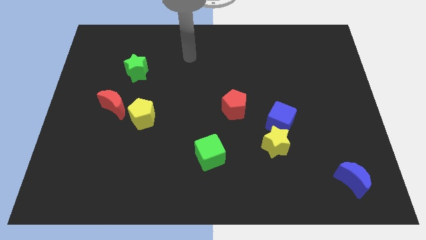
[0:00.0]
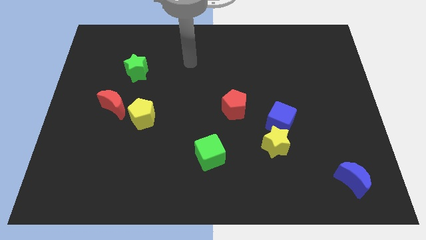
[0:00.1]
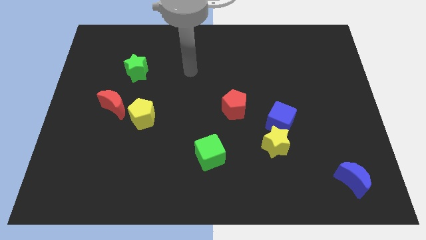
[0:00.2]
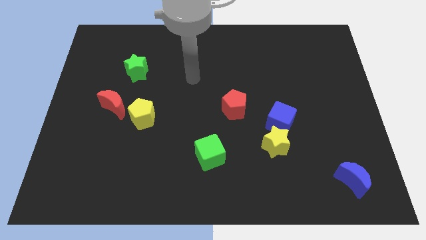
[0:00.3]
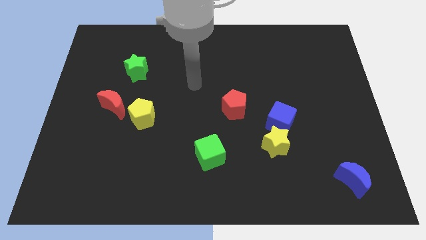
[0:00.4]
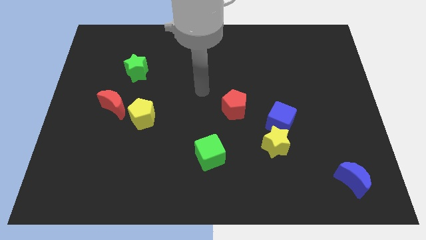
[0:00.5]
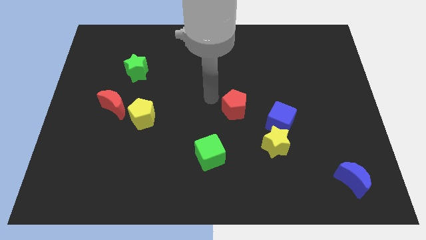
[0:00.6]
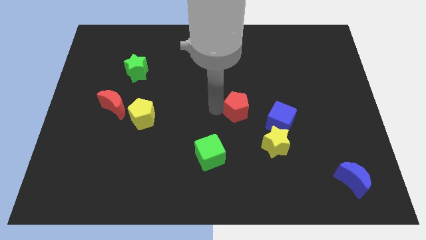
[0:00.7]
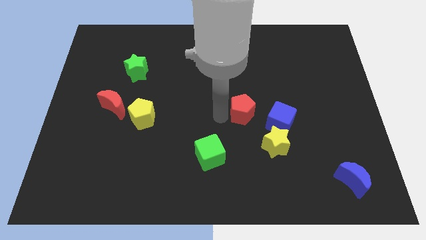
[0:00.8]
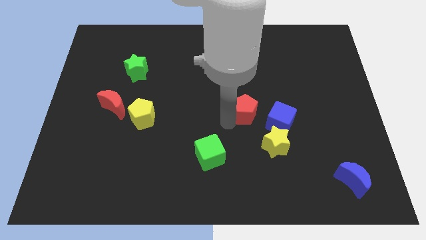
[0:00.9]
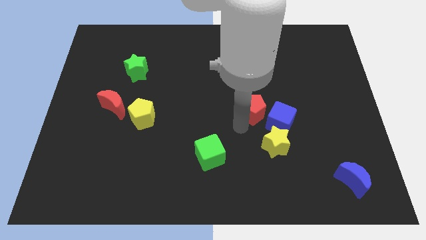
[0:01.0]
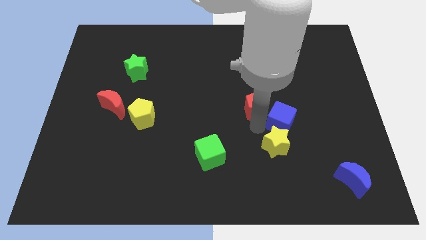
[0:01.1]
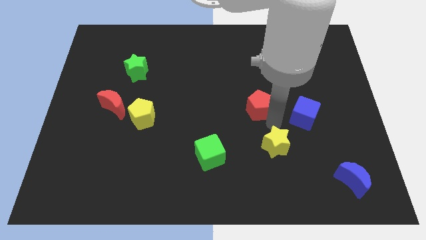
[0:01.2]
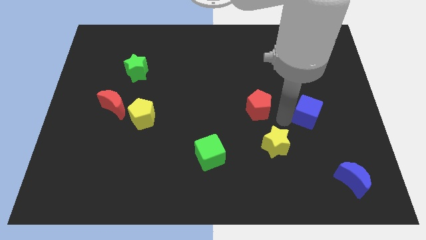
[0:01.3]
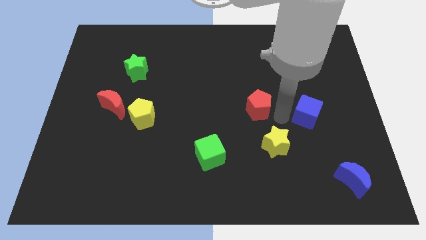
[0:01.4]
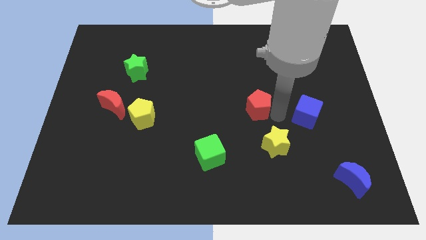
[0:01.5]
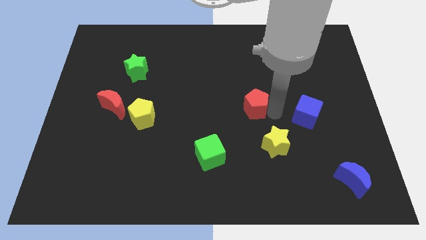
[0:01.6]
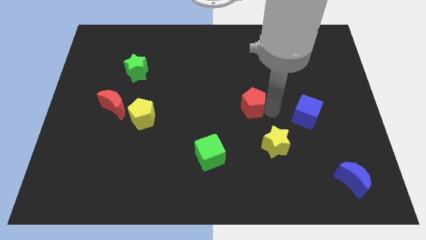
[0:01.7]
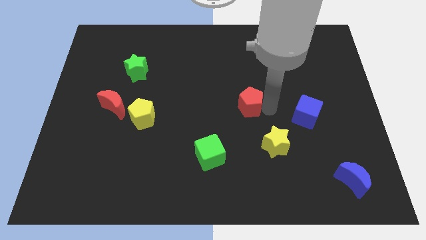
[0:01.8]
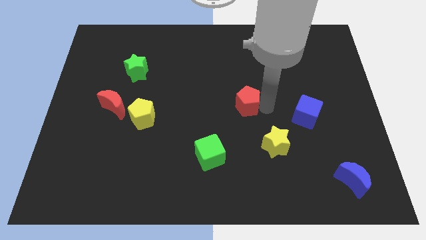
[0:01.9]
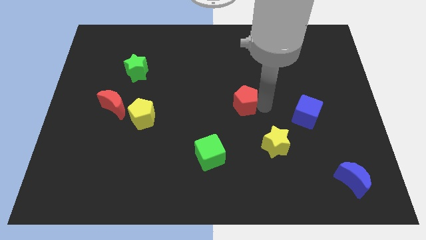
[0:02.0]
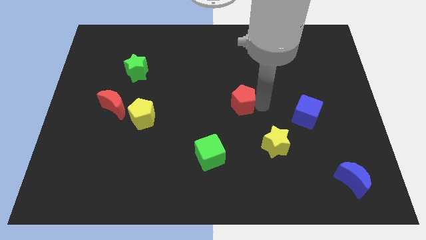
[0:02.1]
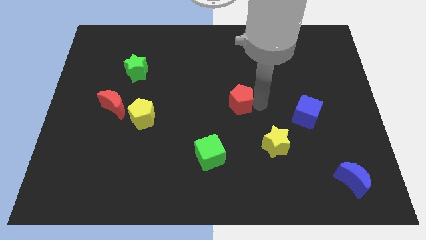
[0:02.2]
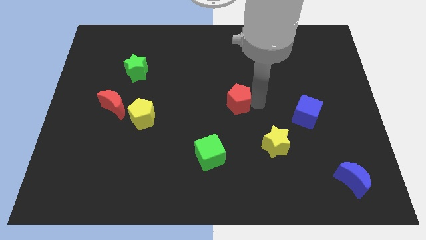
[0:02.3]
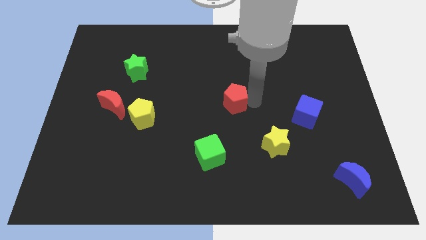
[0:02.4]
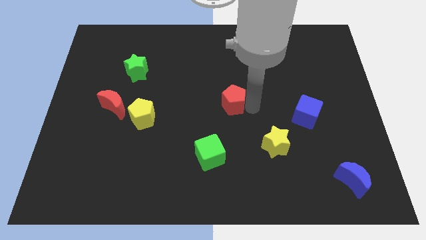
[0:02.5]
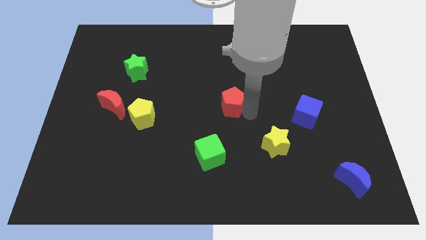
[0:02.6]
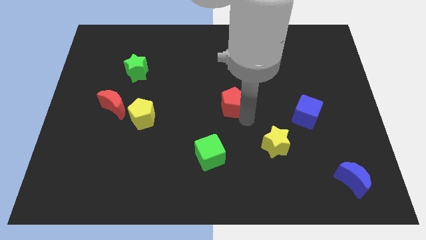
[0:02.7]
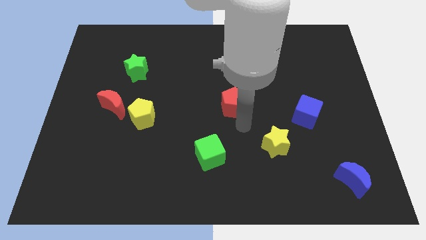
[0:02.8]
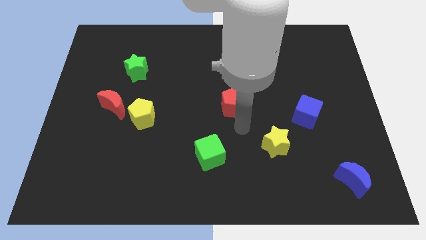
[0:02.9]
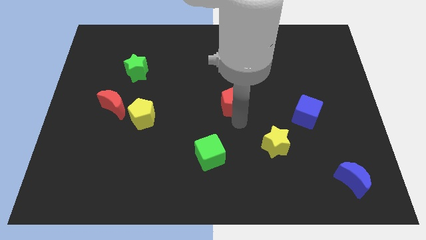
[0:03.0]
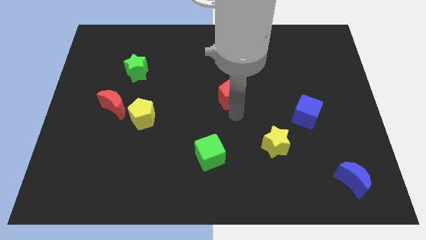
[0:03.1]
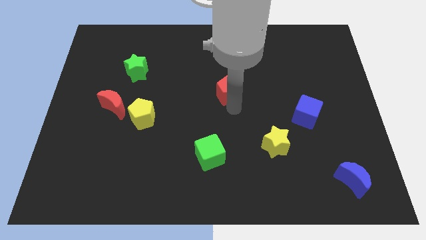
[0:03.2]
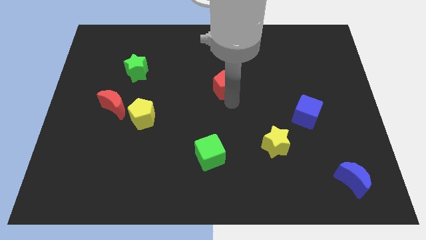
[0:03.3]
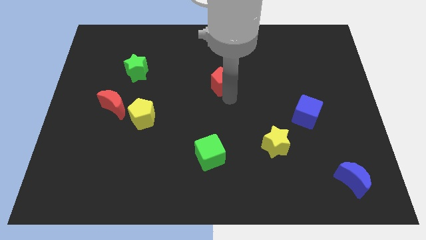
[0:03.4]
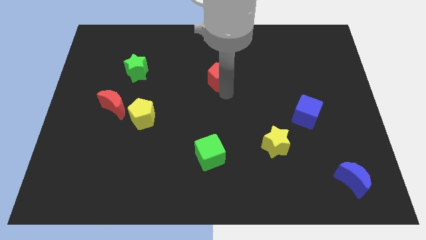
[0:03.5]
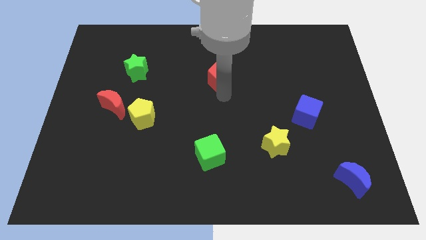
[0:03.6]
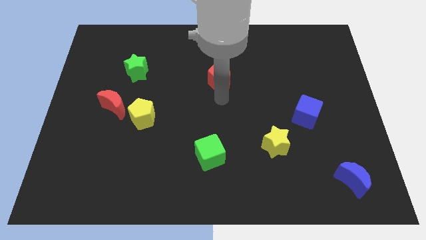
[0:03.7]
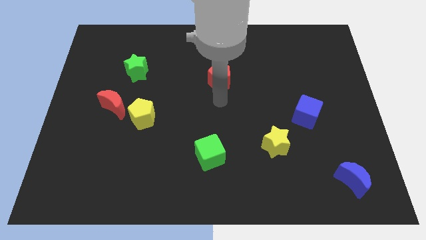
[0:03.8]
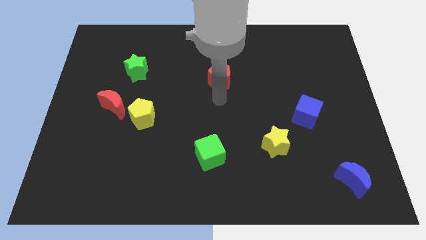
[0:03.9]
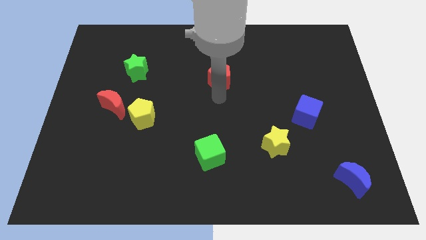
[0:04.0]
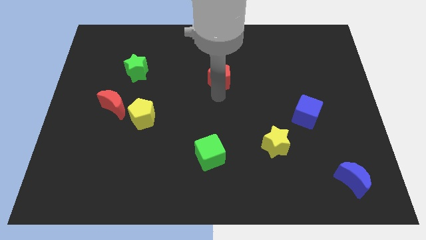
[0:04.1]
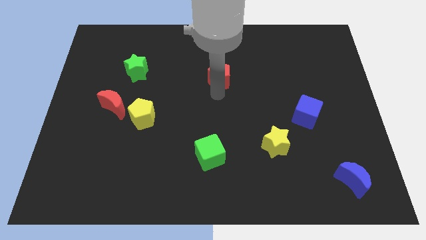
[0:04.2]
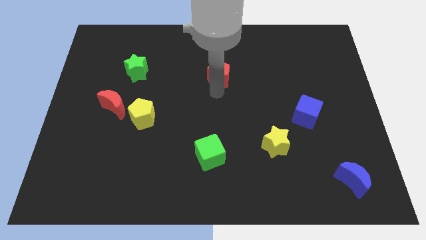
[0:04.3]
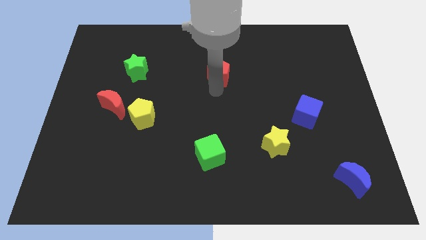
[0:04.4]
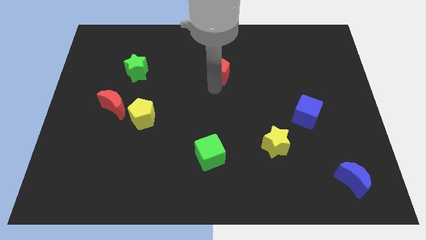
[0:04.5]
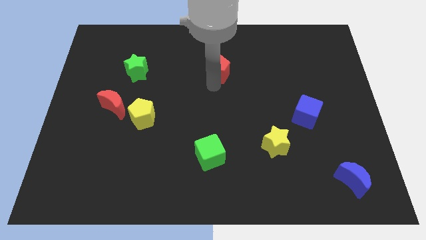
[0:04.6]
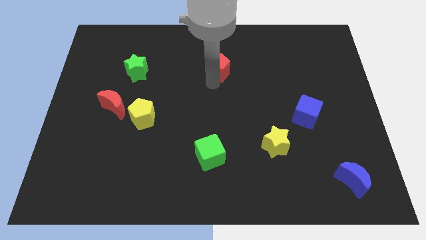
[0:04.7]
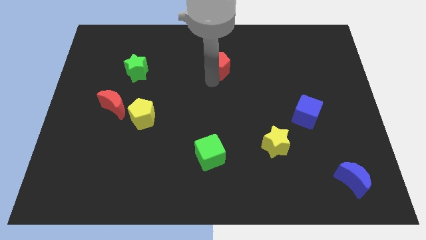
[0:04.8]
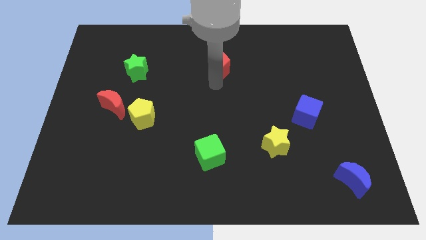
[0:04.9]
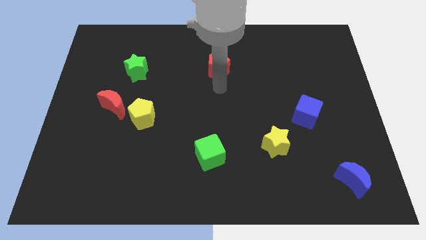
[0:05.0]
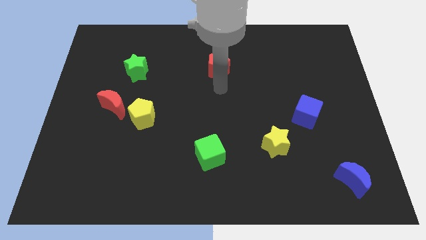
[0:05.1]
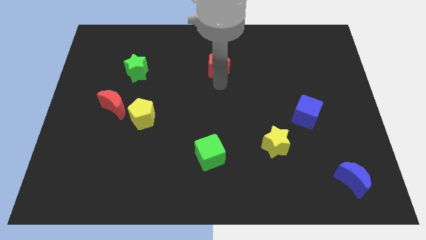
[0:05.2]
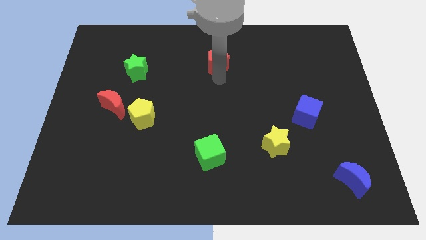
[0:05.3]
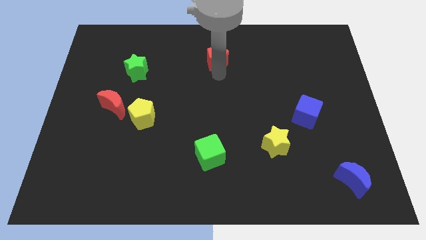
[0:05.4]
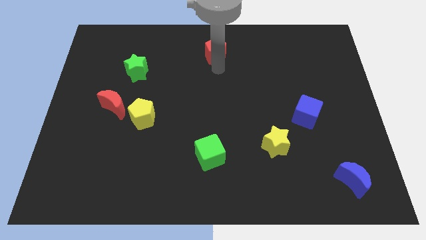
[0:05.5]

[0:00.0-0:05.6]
push the red pentagon to the towards your base

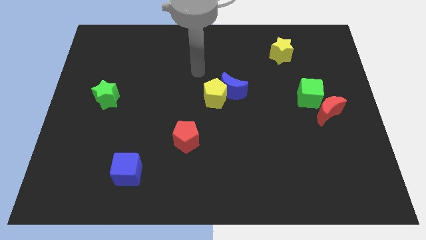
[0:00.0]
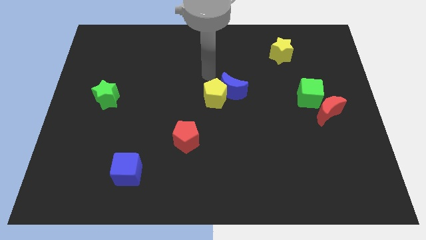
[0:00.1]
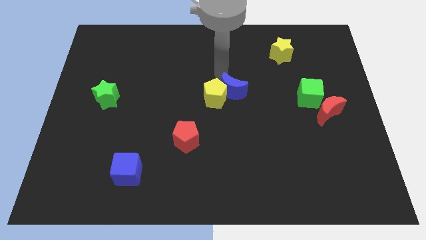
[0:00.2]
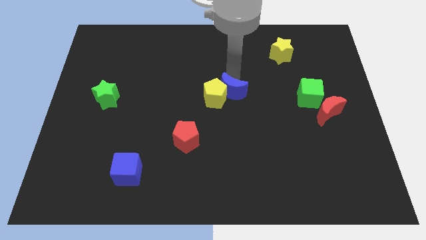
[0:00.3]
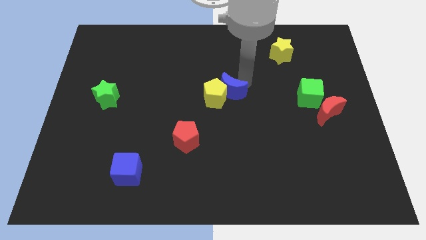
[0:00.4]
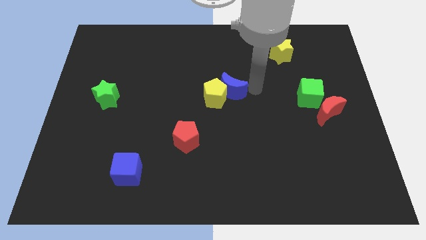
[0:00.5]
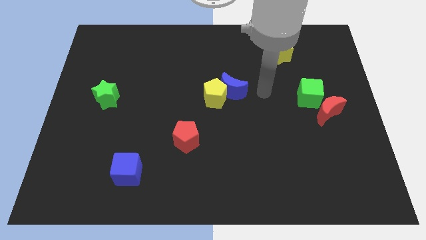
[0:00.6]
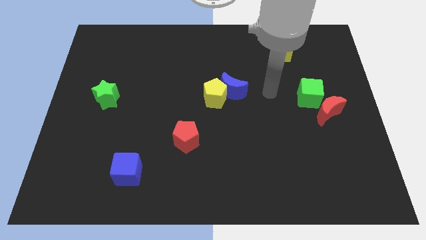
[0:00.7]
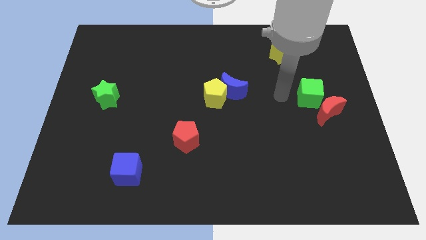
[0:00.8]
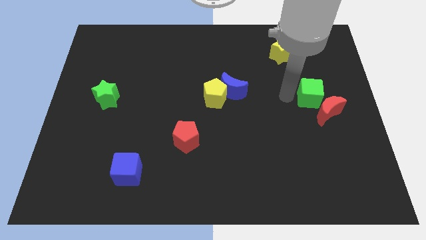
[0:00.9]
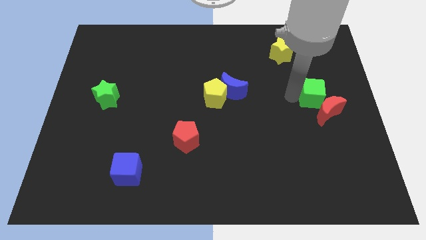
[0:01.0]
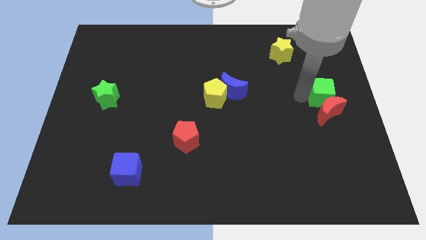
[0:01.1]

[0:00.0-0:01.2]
push the green cube to the right side of the board
